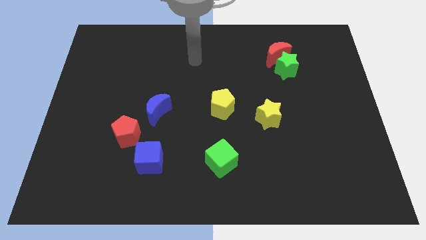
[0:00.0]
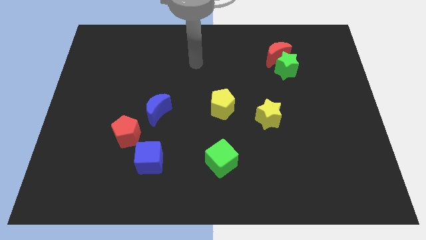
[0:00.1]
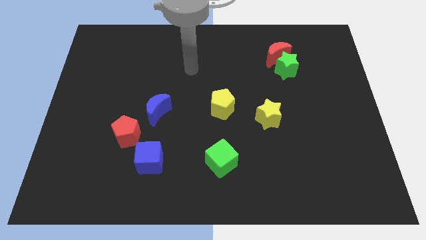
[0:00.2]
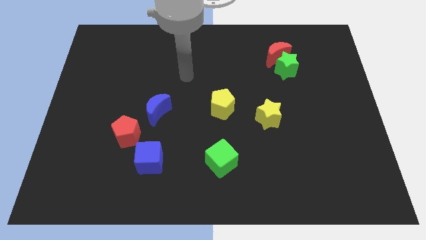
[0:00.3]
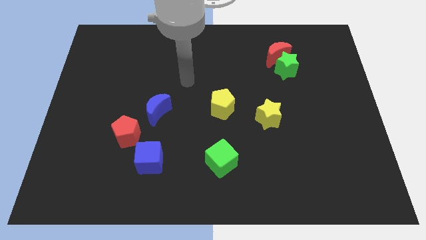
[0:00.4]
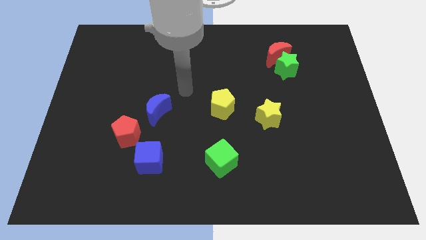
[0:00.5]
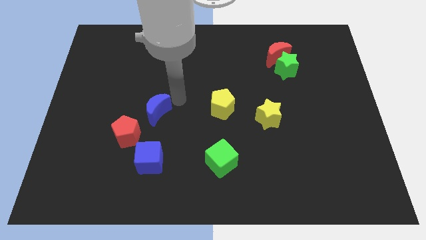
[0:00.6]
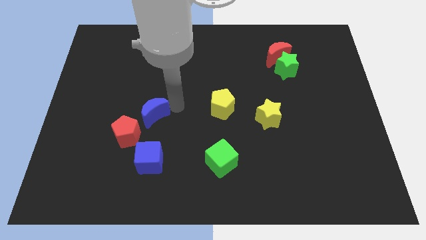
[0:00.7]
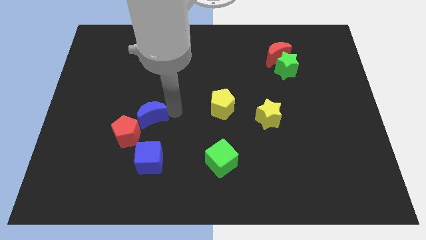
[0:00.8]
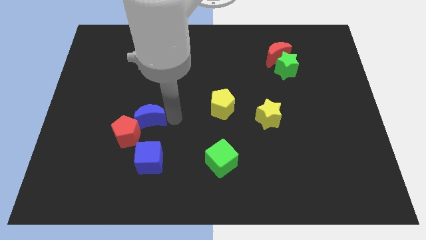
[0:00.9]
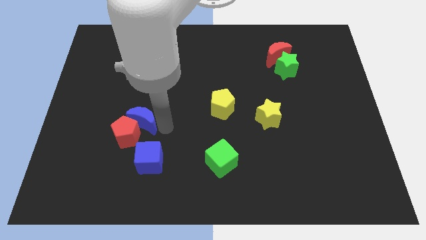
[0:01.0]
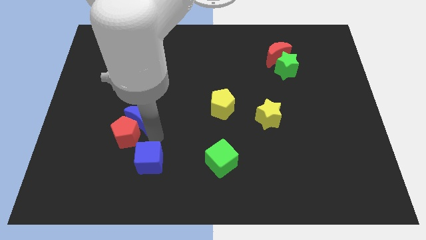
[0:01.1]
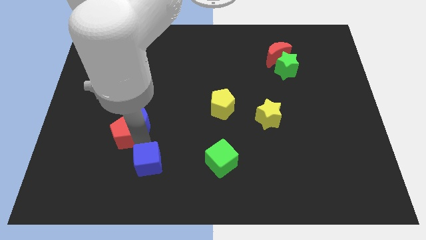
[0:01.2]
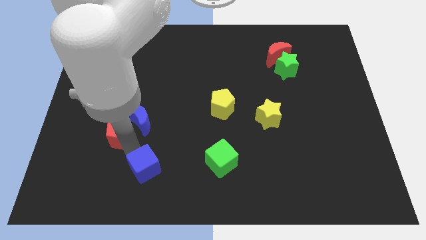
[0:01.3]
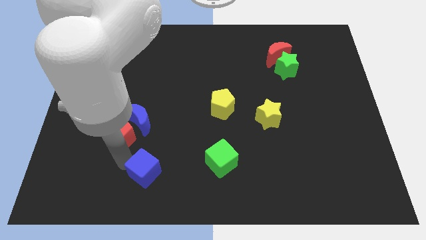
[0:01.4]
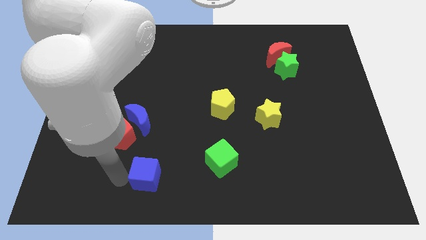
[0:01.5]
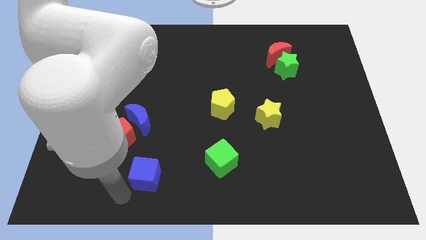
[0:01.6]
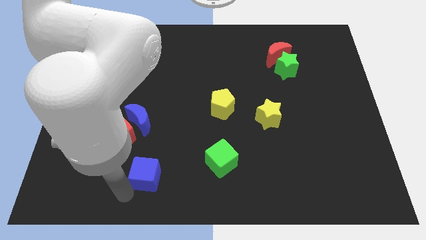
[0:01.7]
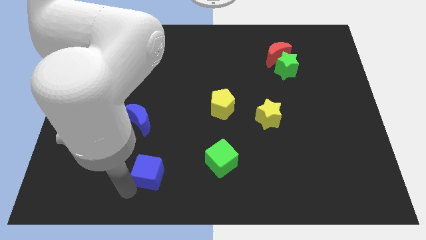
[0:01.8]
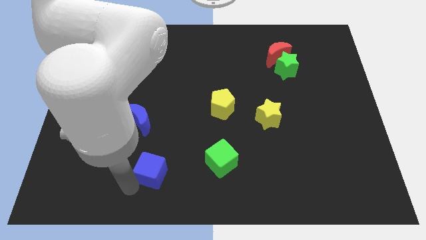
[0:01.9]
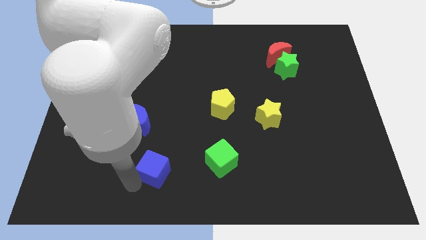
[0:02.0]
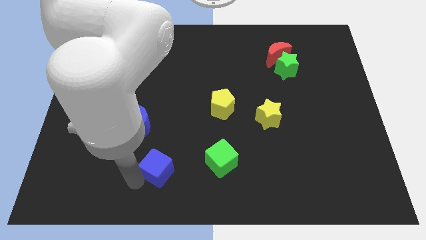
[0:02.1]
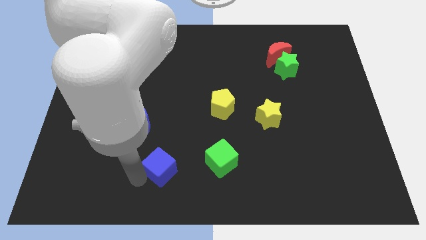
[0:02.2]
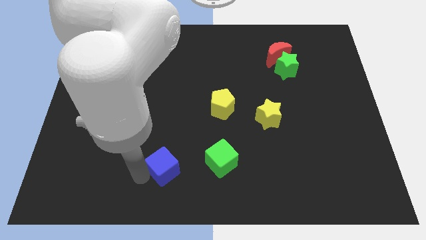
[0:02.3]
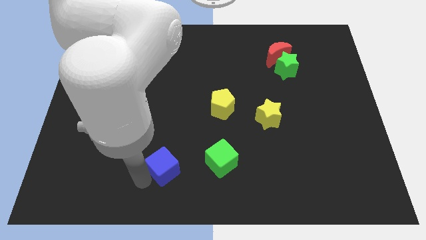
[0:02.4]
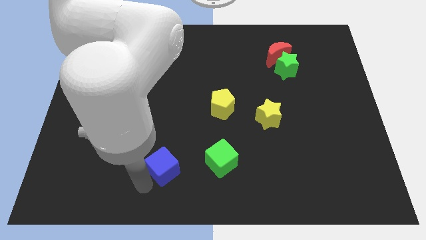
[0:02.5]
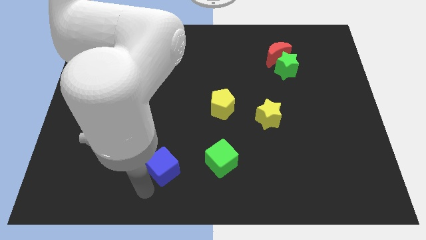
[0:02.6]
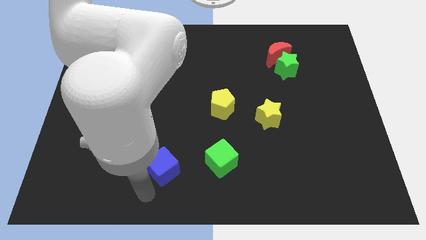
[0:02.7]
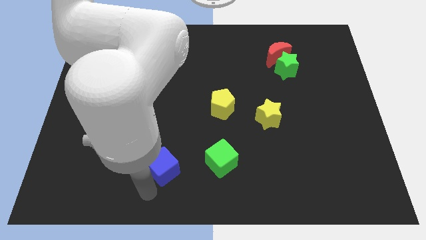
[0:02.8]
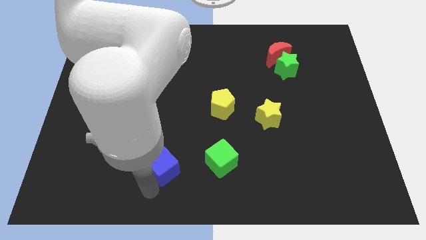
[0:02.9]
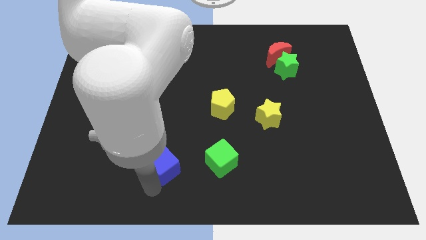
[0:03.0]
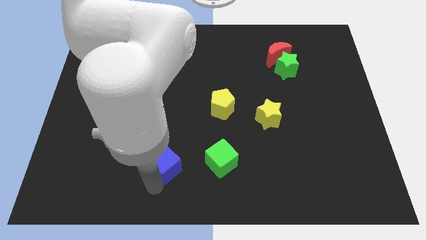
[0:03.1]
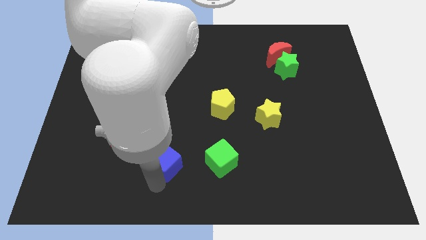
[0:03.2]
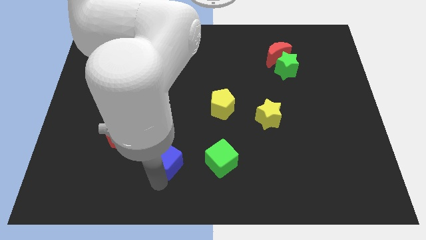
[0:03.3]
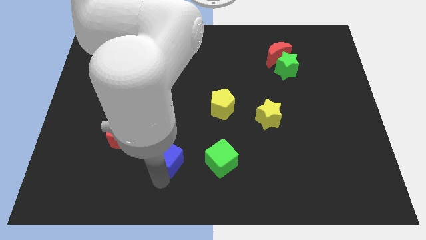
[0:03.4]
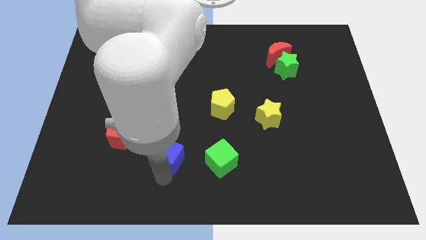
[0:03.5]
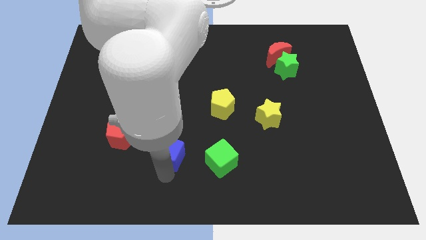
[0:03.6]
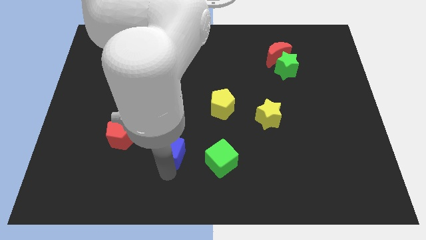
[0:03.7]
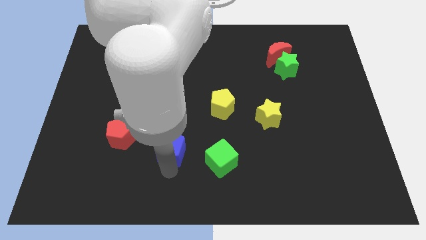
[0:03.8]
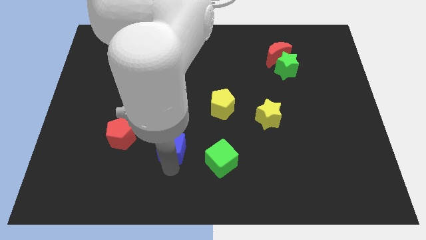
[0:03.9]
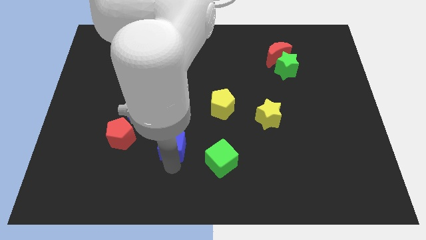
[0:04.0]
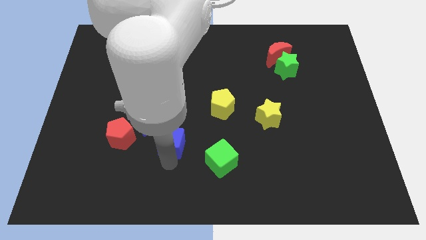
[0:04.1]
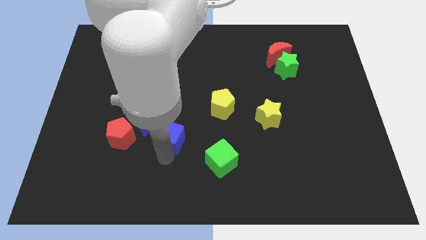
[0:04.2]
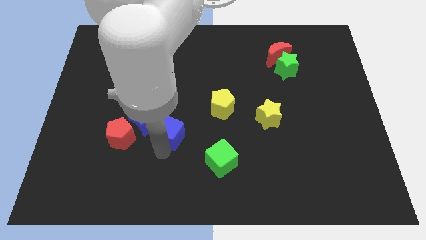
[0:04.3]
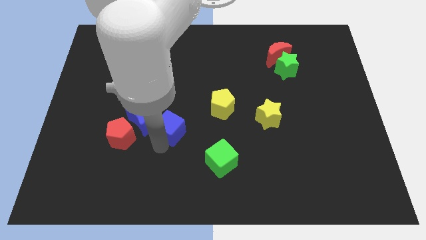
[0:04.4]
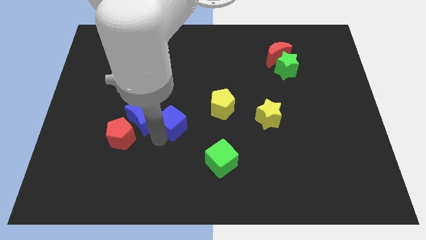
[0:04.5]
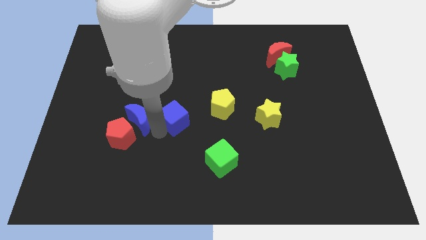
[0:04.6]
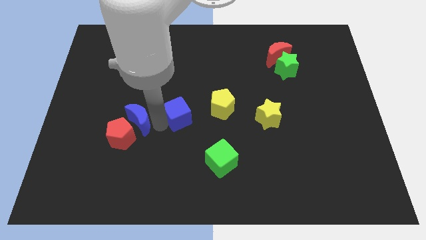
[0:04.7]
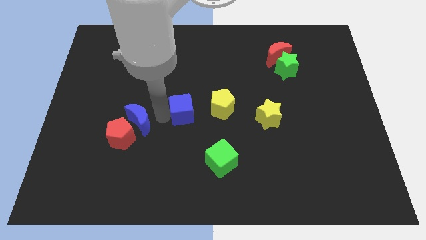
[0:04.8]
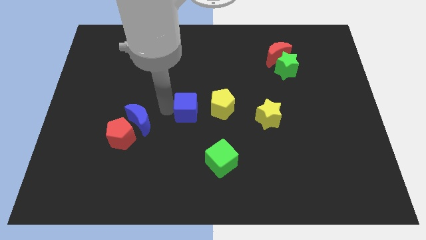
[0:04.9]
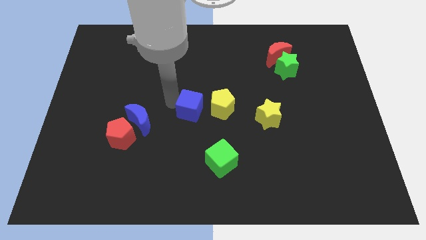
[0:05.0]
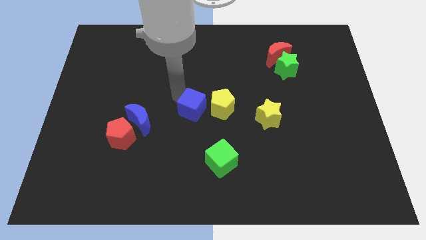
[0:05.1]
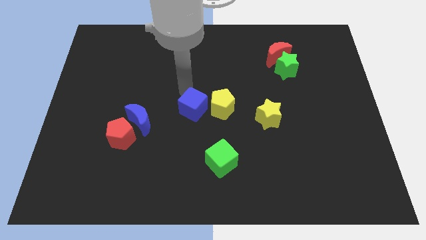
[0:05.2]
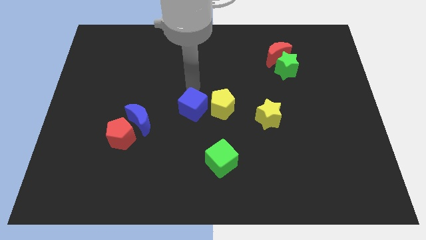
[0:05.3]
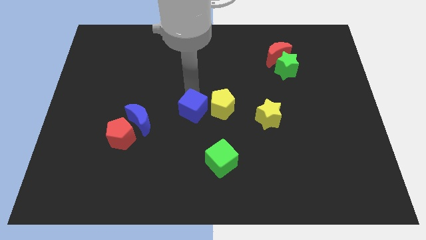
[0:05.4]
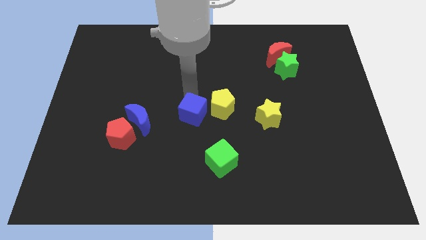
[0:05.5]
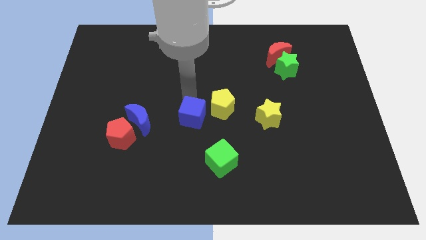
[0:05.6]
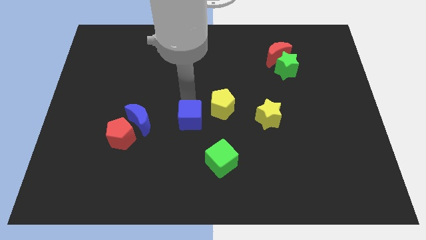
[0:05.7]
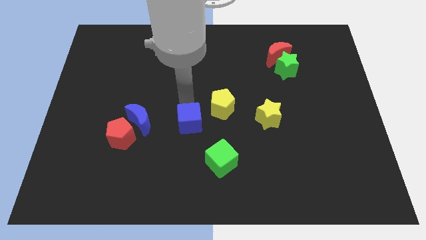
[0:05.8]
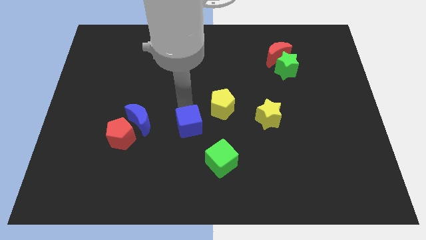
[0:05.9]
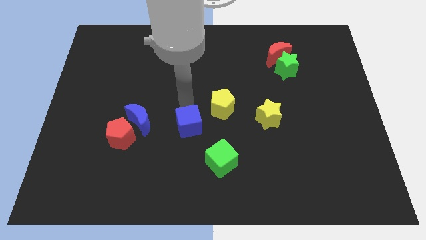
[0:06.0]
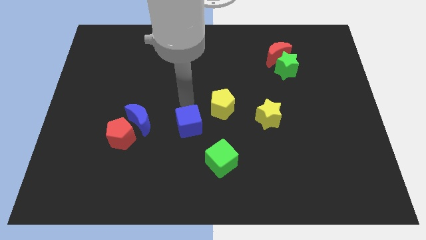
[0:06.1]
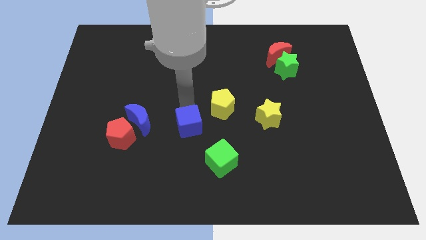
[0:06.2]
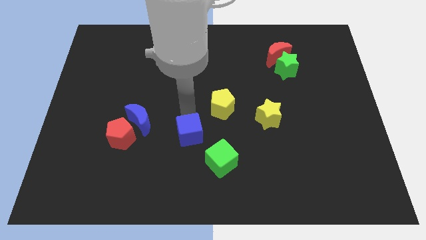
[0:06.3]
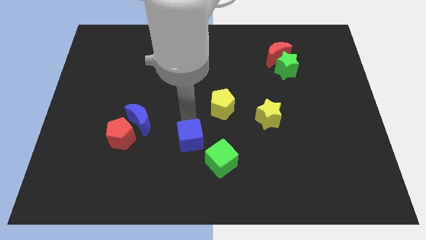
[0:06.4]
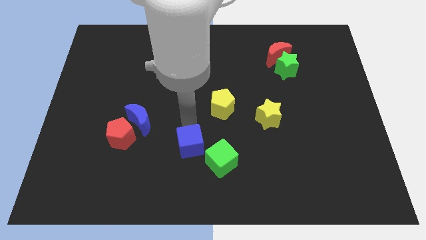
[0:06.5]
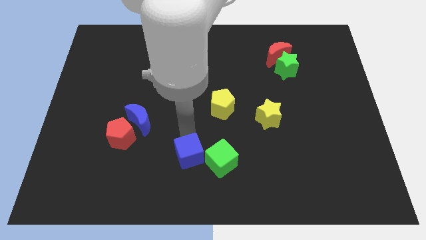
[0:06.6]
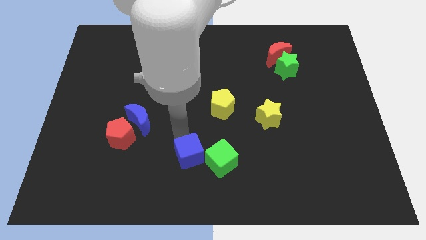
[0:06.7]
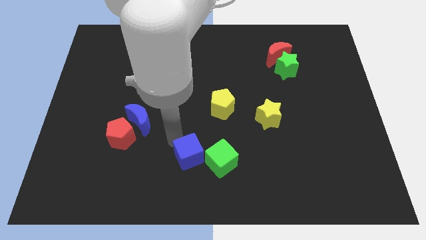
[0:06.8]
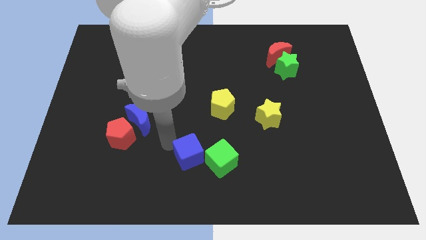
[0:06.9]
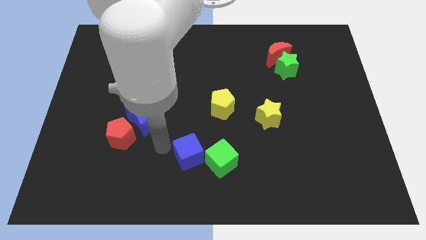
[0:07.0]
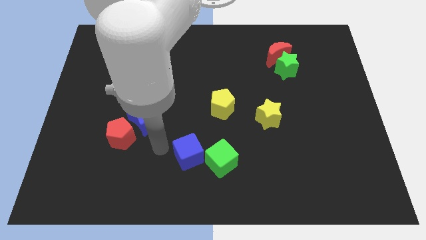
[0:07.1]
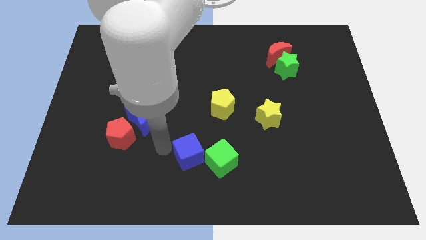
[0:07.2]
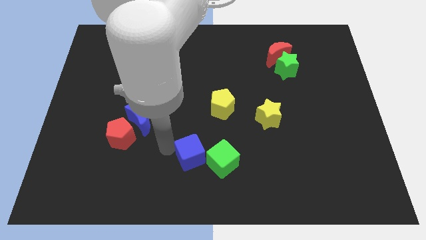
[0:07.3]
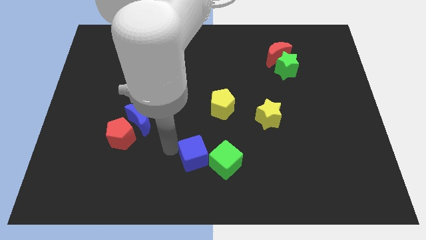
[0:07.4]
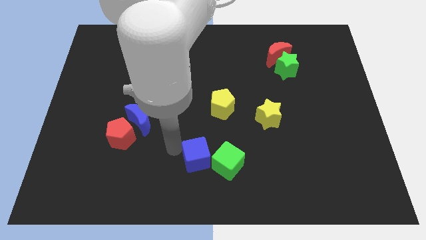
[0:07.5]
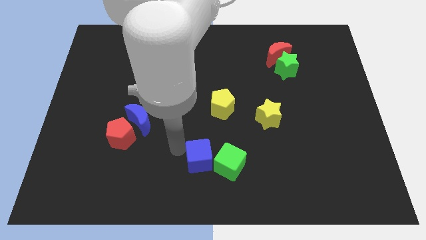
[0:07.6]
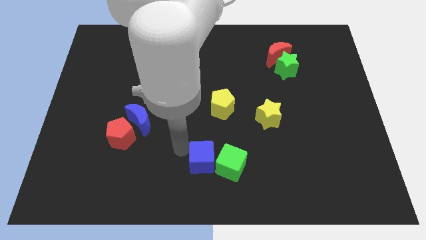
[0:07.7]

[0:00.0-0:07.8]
move the blue cube towards the green cube
